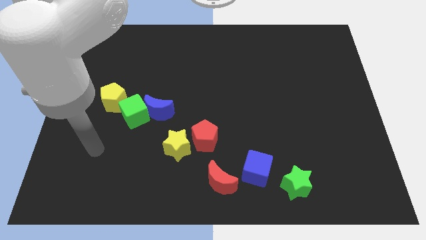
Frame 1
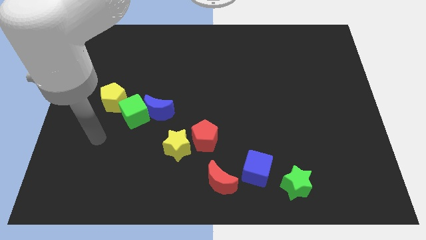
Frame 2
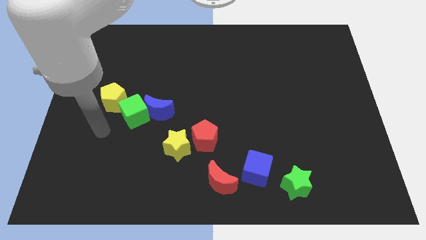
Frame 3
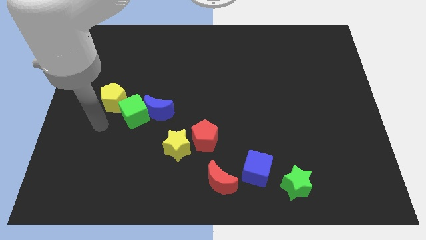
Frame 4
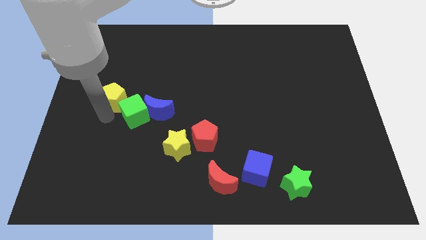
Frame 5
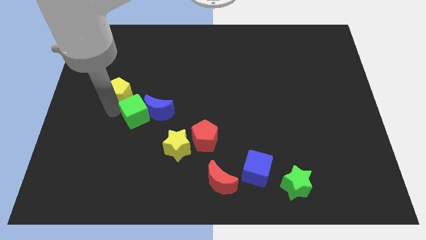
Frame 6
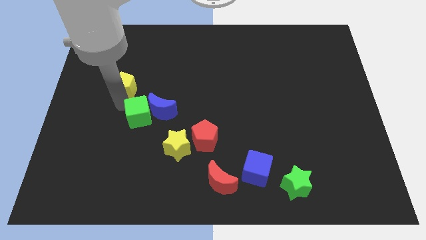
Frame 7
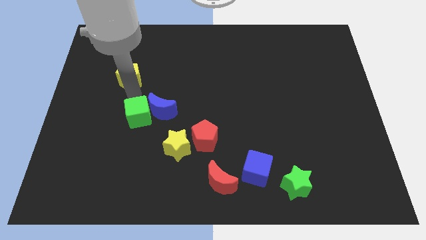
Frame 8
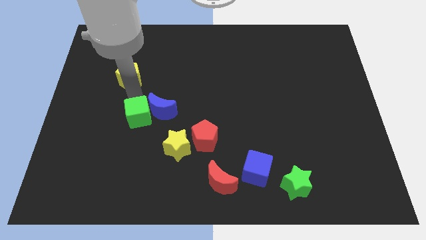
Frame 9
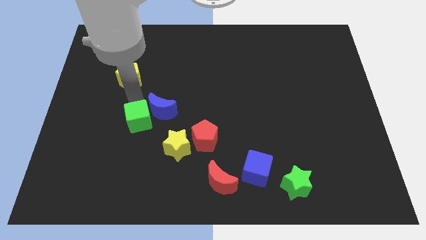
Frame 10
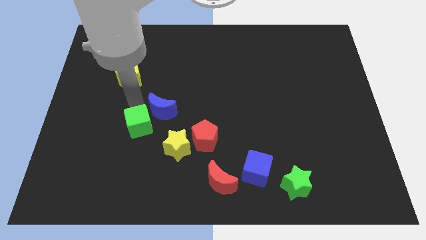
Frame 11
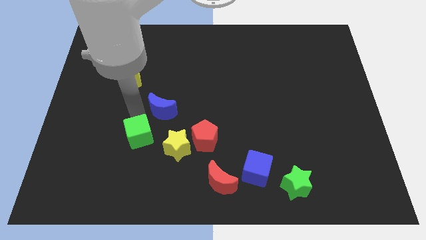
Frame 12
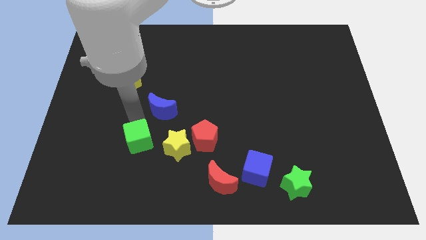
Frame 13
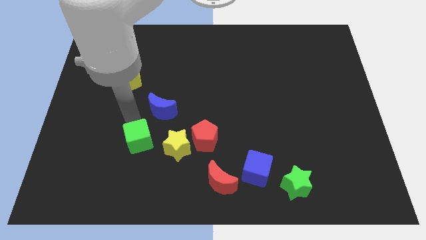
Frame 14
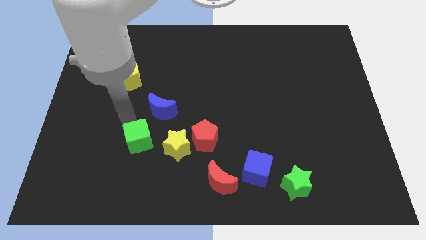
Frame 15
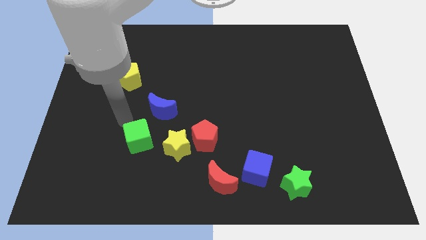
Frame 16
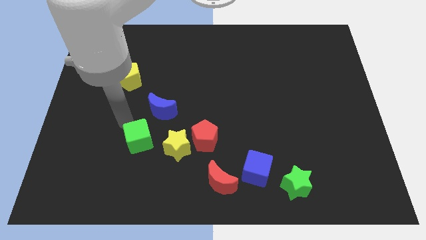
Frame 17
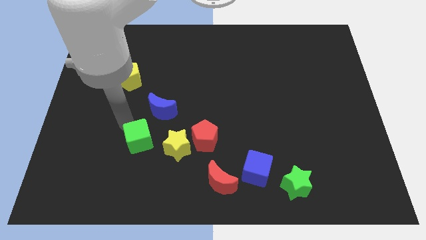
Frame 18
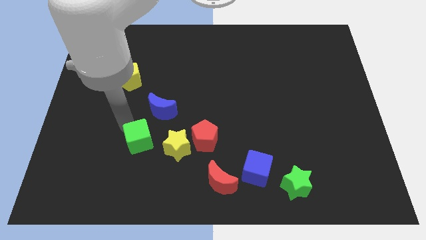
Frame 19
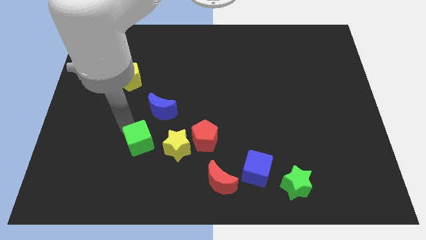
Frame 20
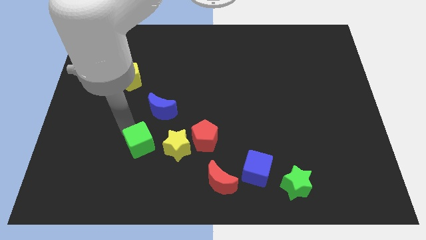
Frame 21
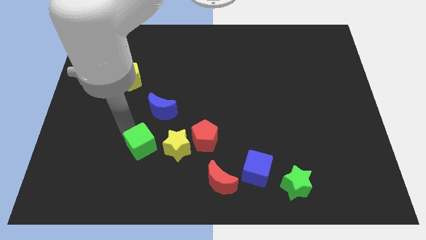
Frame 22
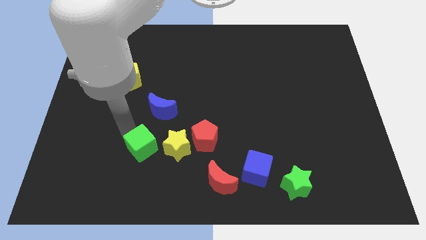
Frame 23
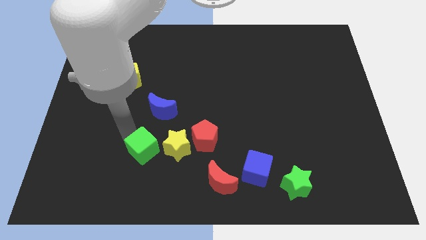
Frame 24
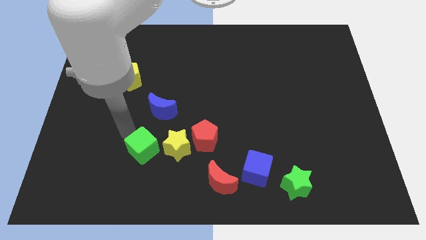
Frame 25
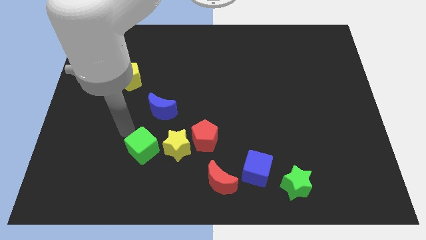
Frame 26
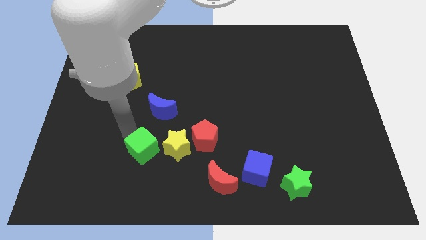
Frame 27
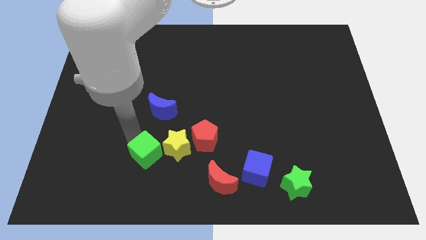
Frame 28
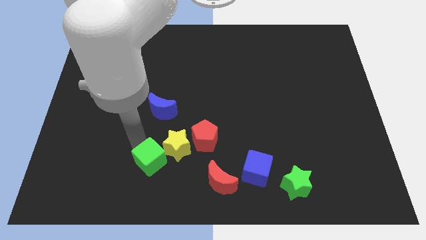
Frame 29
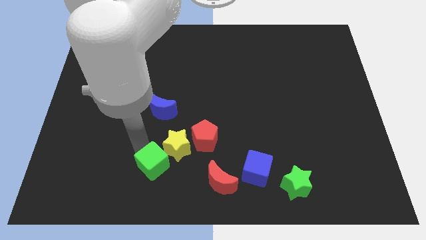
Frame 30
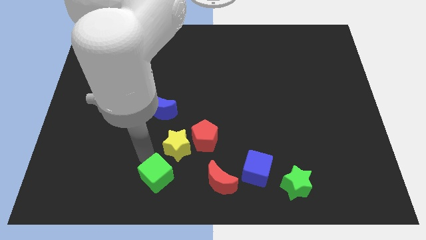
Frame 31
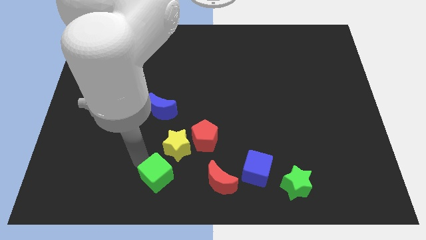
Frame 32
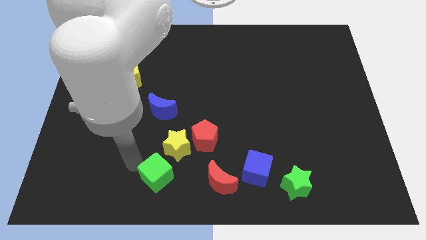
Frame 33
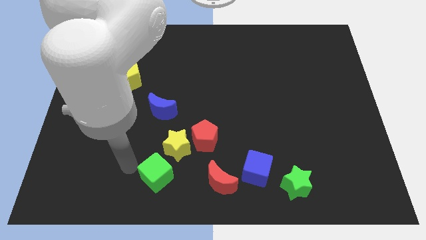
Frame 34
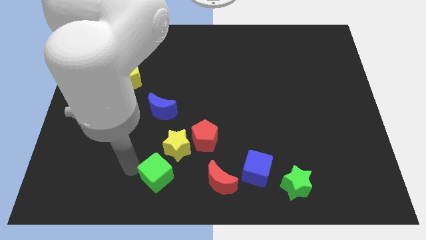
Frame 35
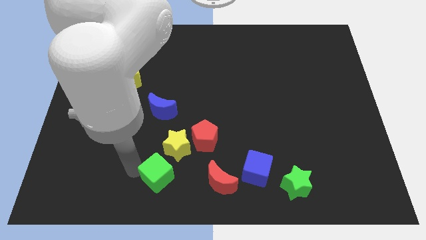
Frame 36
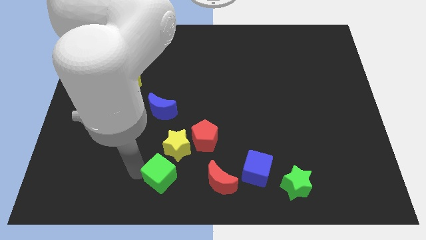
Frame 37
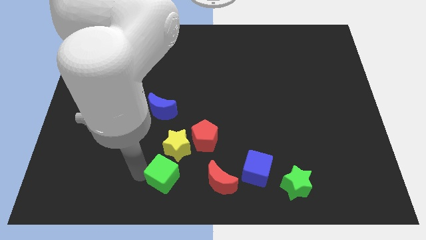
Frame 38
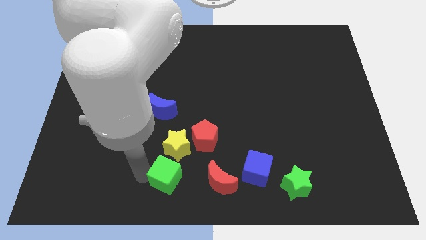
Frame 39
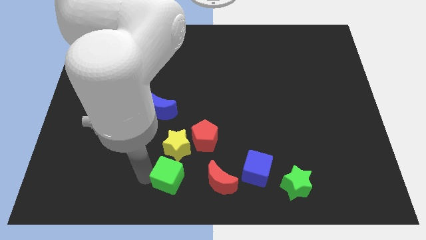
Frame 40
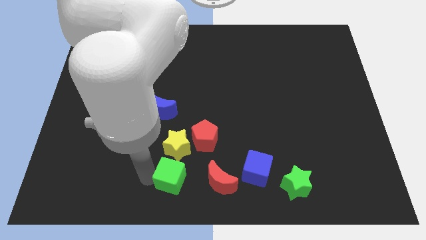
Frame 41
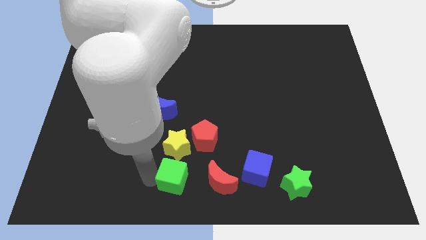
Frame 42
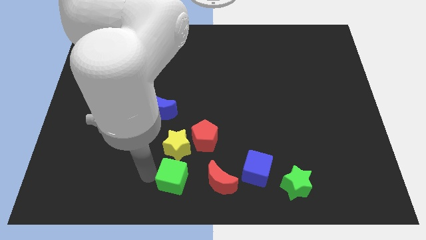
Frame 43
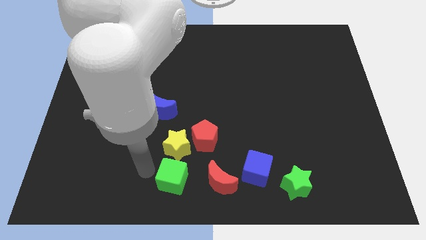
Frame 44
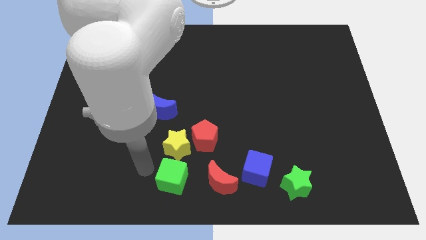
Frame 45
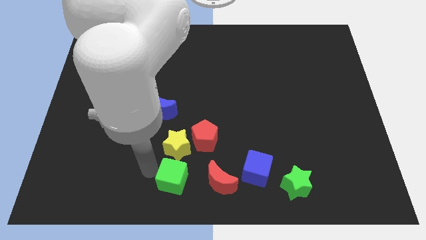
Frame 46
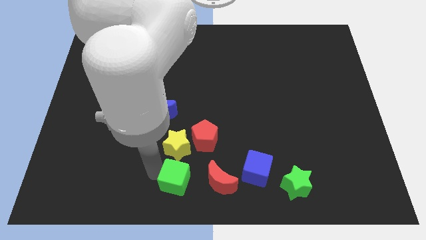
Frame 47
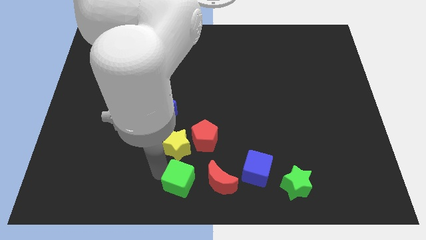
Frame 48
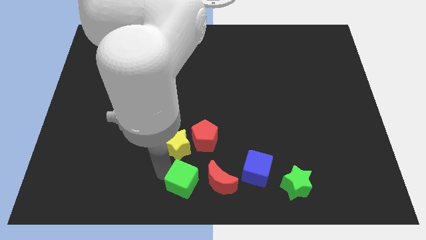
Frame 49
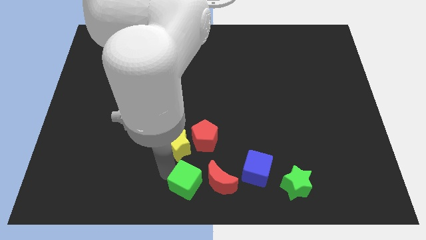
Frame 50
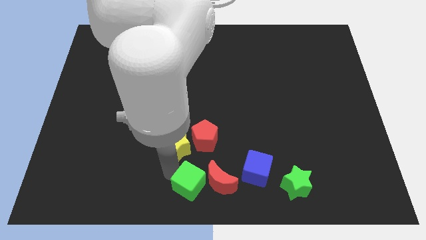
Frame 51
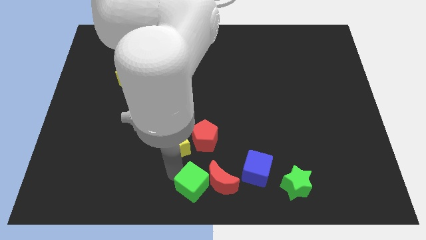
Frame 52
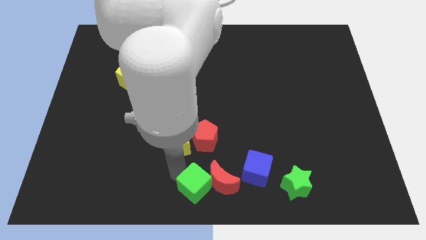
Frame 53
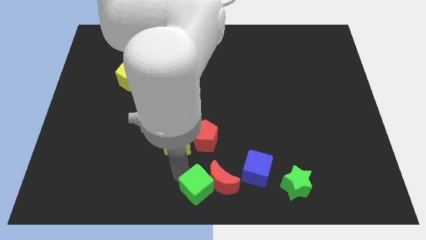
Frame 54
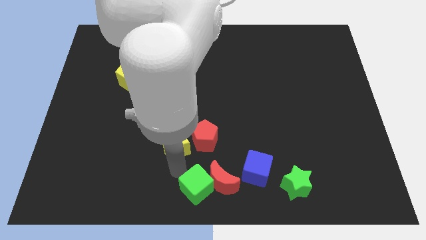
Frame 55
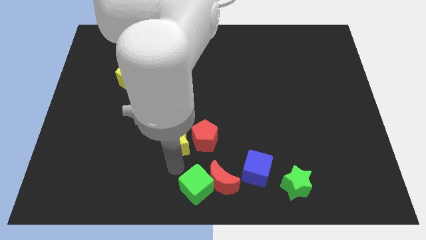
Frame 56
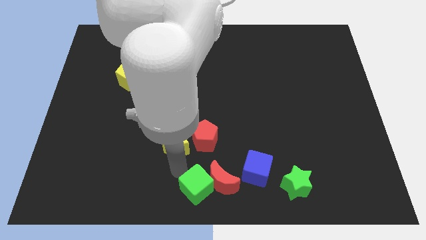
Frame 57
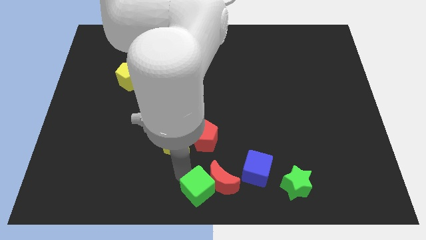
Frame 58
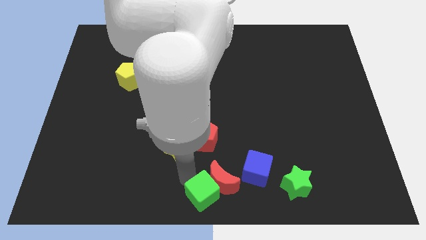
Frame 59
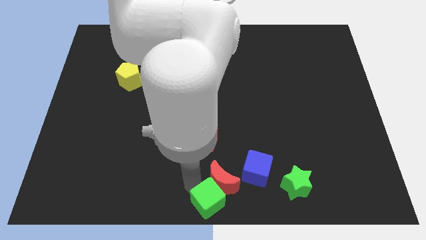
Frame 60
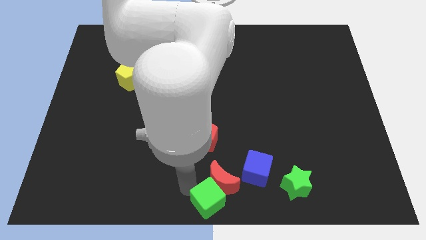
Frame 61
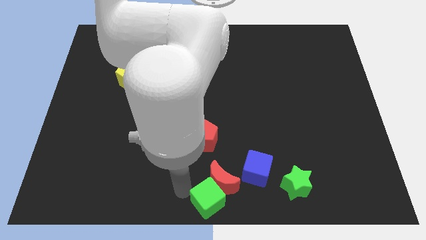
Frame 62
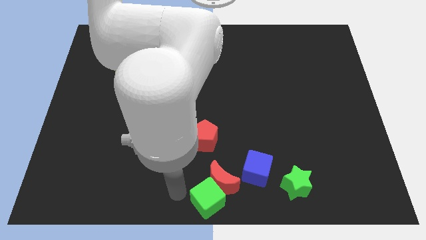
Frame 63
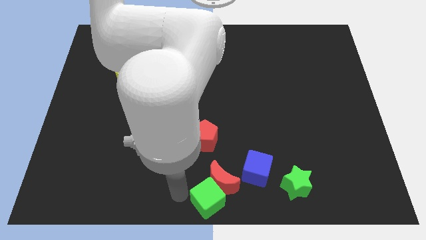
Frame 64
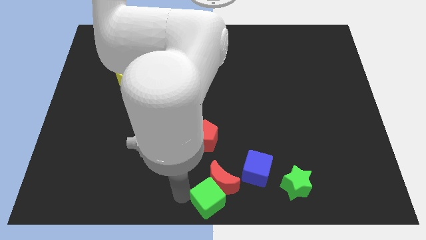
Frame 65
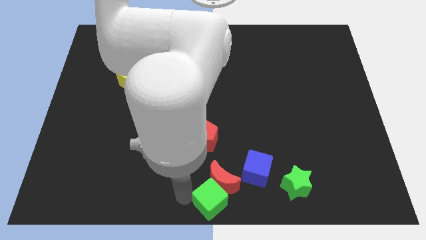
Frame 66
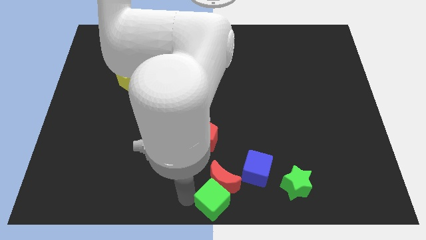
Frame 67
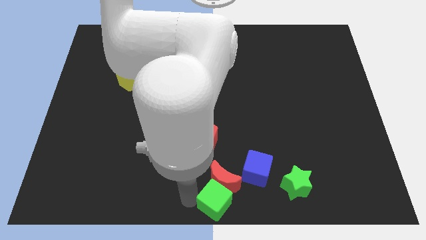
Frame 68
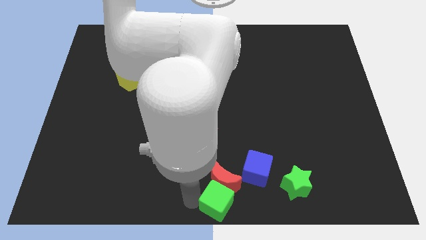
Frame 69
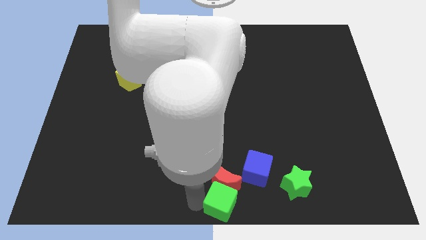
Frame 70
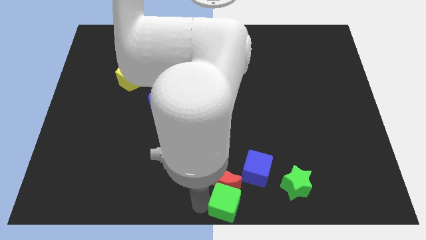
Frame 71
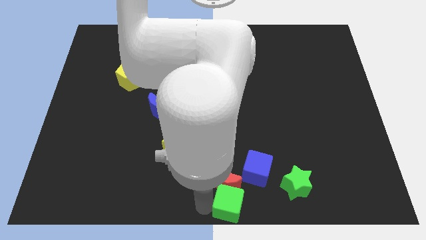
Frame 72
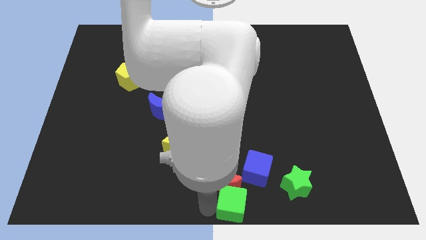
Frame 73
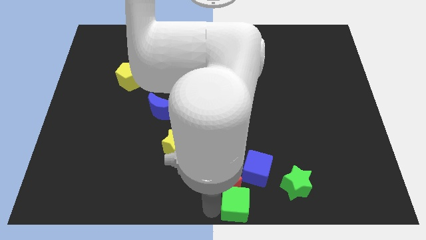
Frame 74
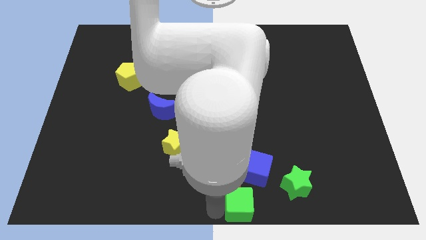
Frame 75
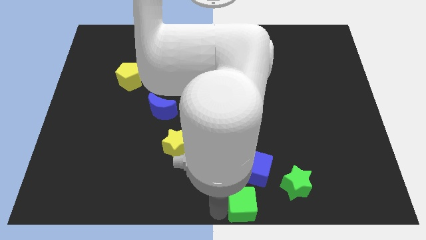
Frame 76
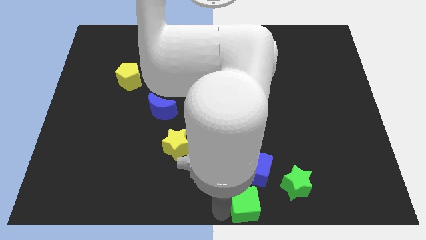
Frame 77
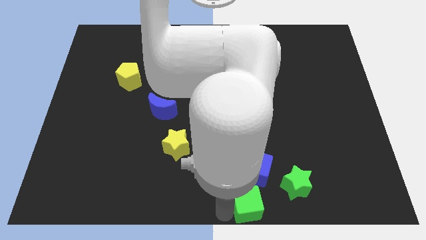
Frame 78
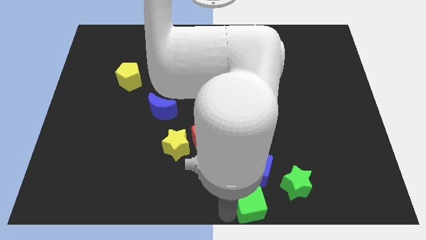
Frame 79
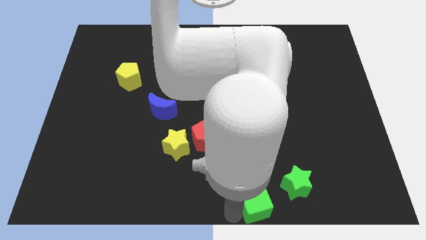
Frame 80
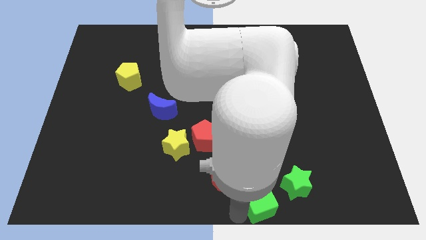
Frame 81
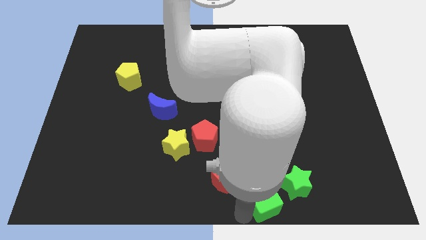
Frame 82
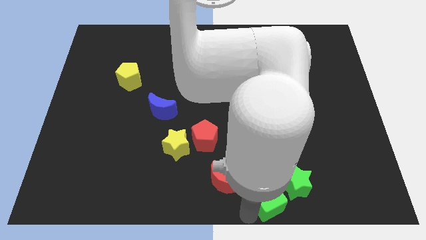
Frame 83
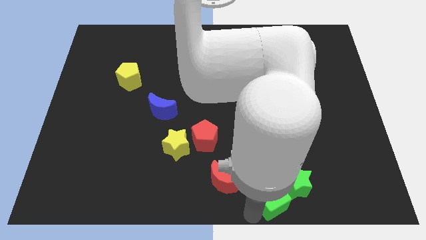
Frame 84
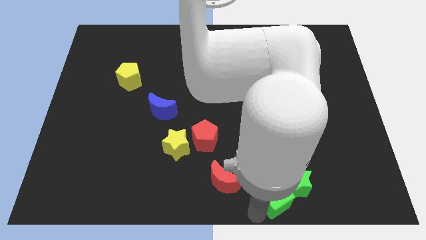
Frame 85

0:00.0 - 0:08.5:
slide the green cube to the green star
